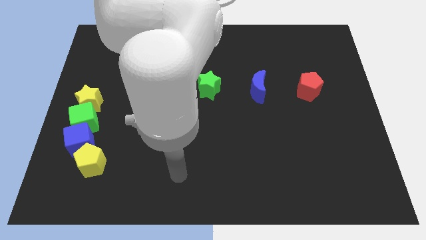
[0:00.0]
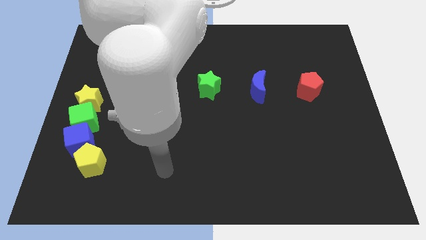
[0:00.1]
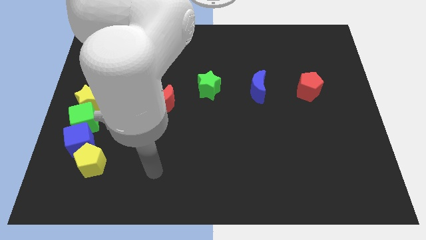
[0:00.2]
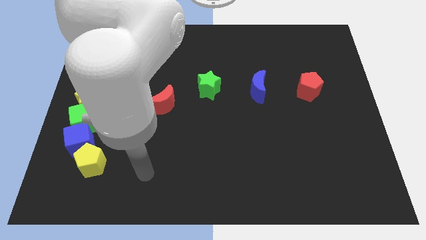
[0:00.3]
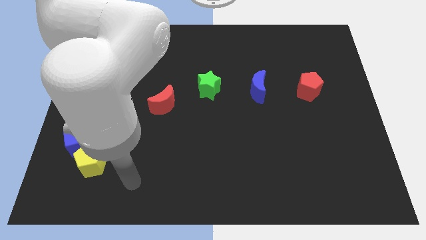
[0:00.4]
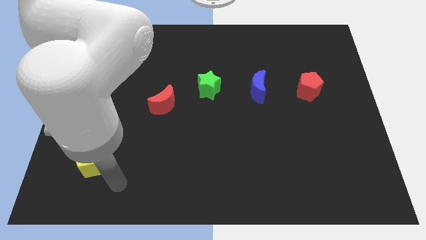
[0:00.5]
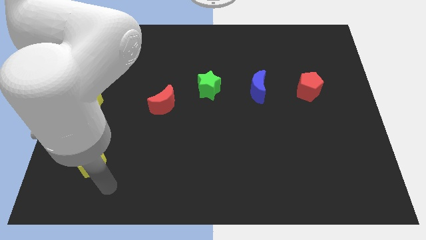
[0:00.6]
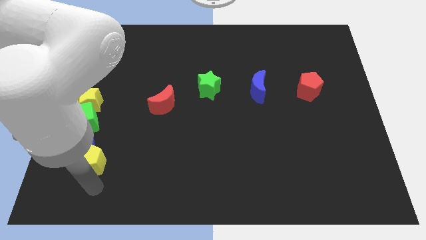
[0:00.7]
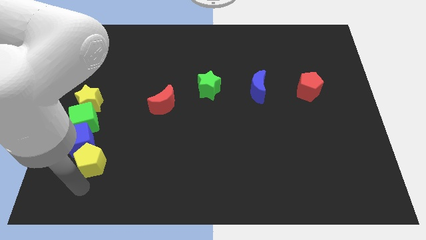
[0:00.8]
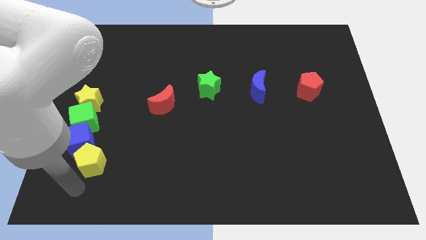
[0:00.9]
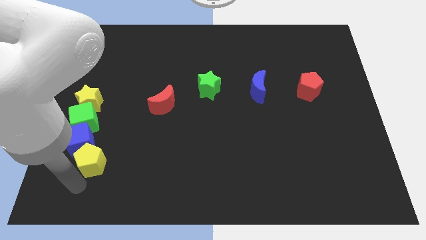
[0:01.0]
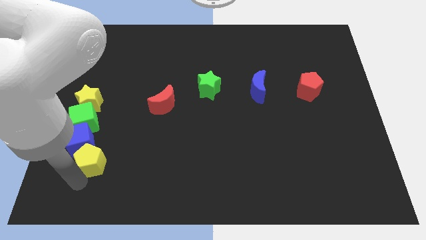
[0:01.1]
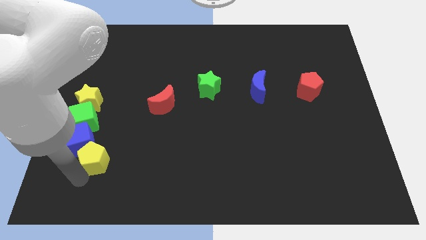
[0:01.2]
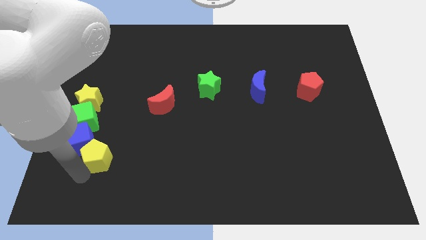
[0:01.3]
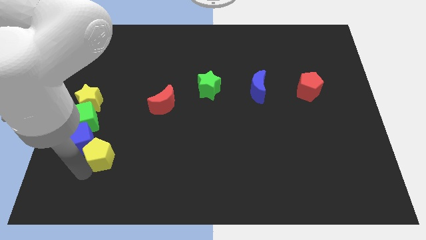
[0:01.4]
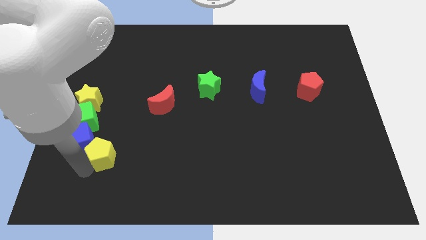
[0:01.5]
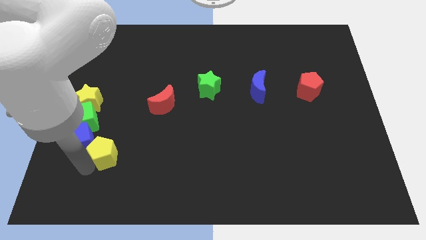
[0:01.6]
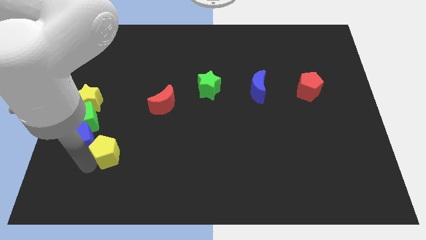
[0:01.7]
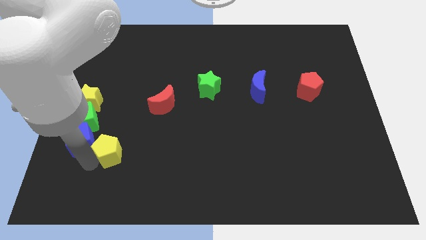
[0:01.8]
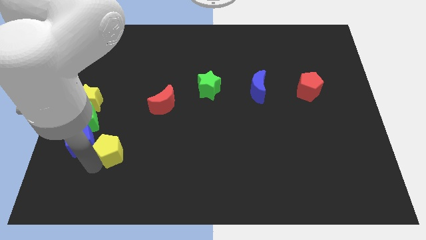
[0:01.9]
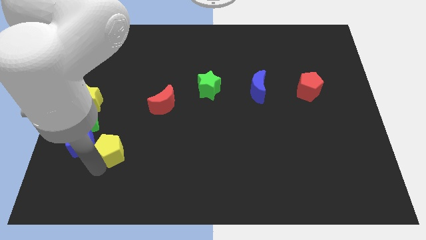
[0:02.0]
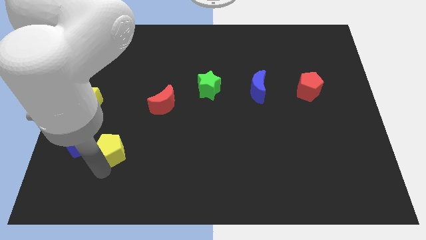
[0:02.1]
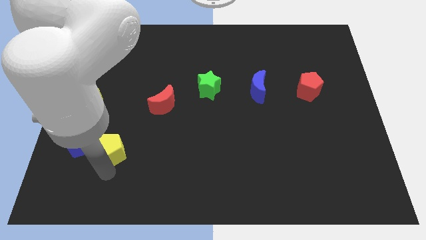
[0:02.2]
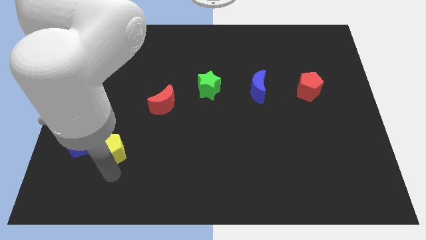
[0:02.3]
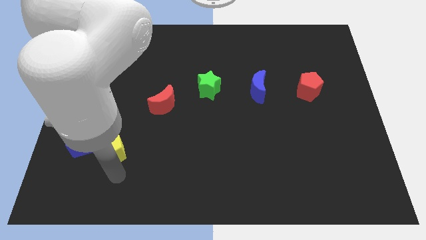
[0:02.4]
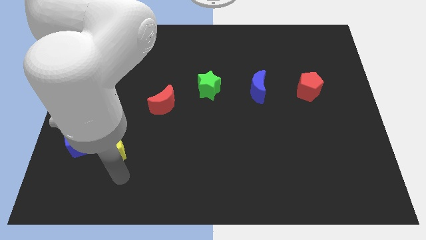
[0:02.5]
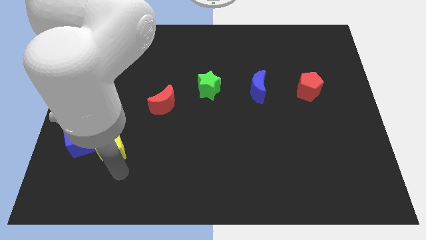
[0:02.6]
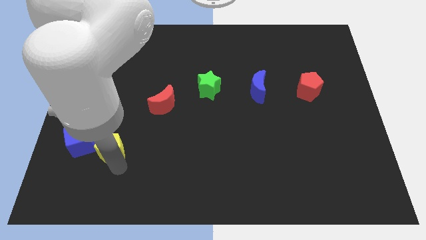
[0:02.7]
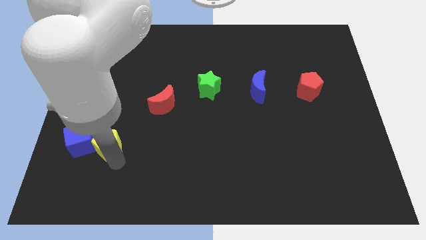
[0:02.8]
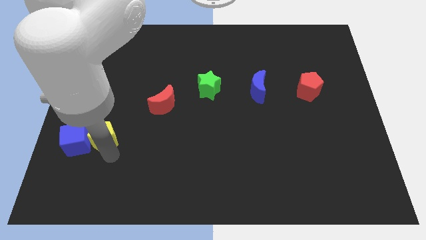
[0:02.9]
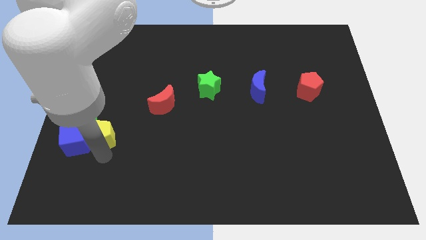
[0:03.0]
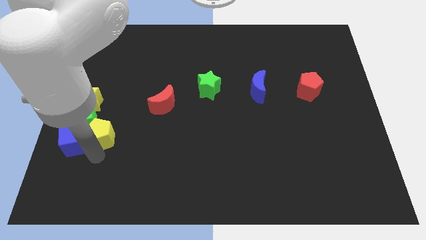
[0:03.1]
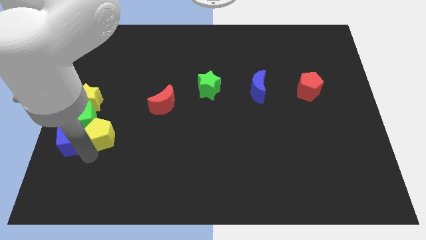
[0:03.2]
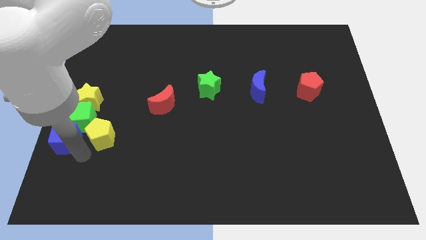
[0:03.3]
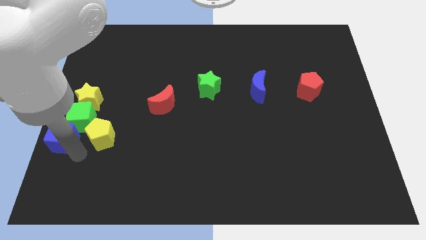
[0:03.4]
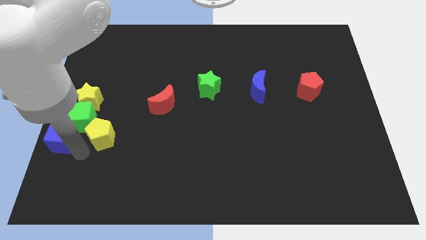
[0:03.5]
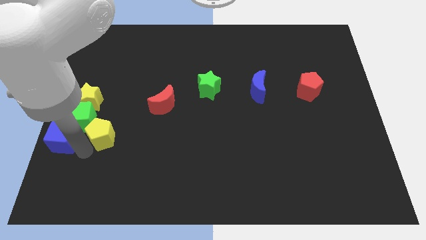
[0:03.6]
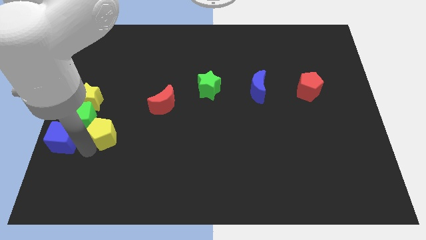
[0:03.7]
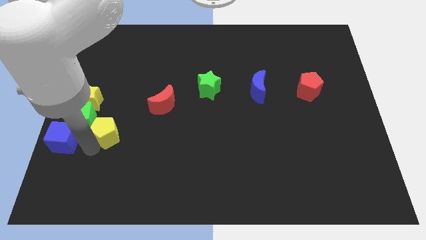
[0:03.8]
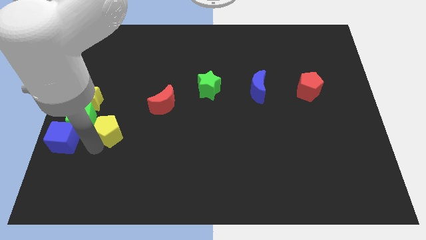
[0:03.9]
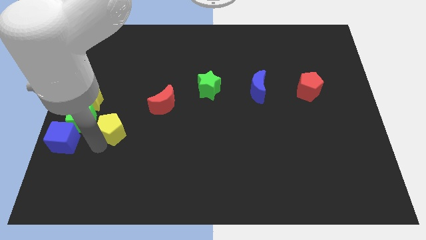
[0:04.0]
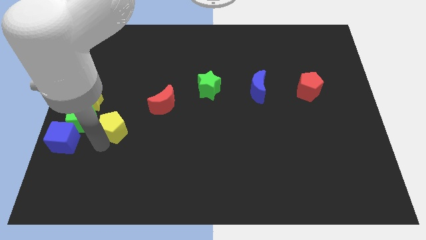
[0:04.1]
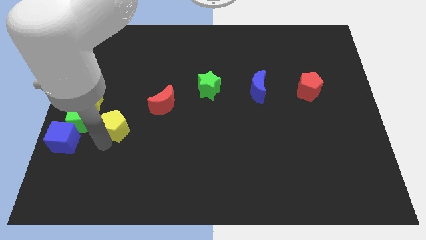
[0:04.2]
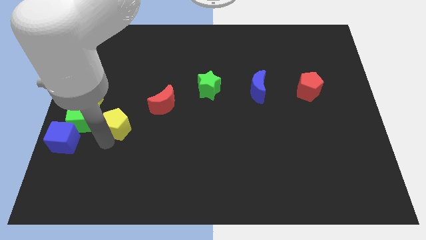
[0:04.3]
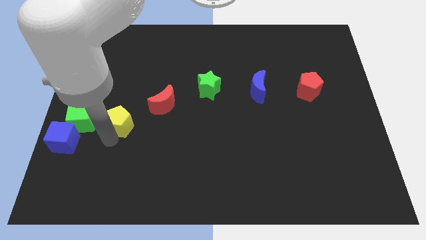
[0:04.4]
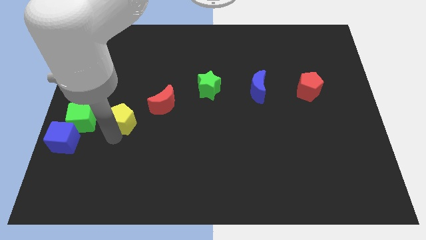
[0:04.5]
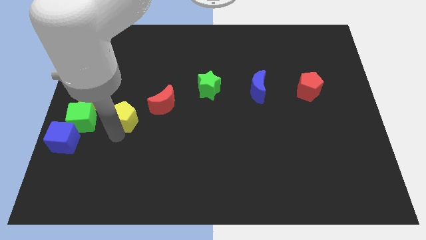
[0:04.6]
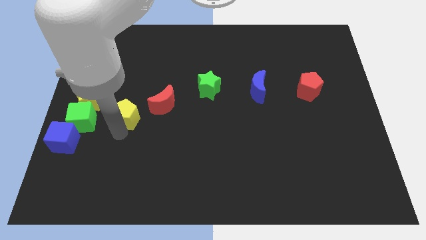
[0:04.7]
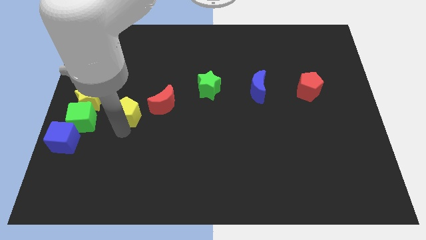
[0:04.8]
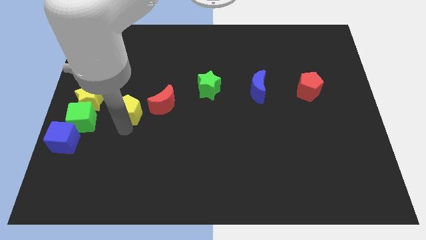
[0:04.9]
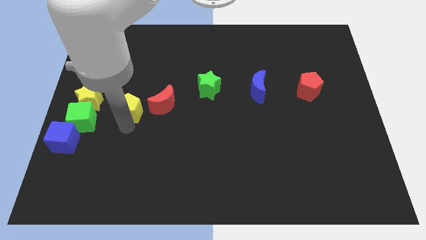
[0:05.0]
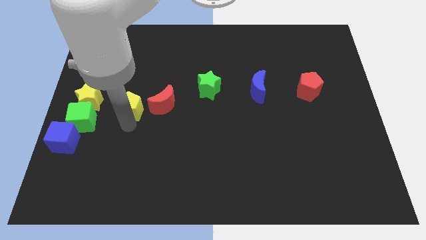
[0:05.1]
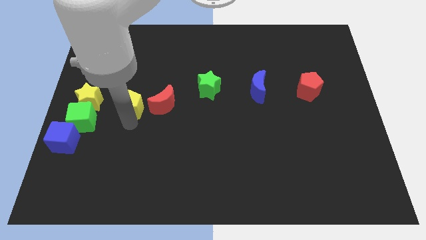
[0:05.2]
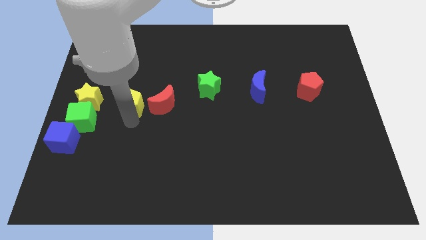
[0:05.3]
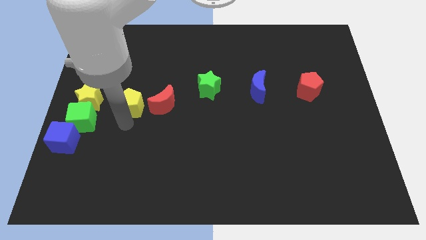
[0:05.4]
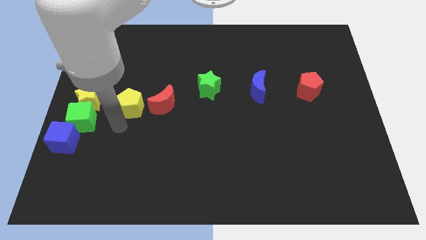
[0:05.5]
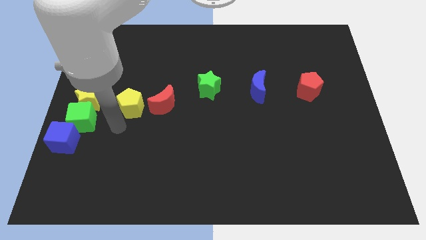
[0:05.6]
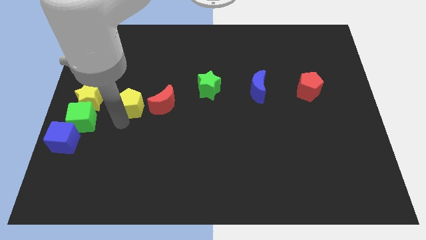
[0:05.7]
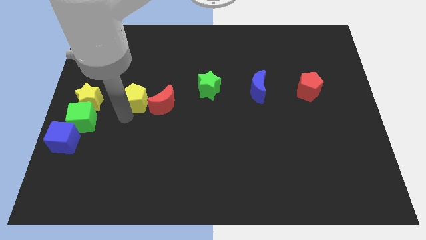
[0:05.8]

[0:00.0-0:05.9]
put the yellow pentagon diagonally up and to the left of the red moon

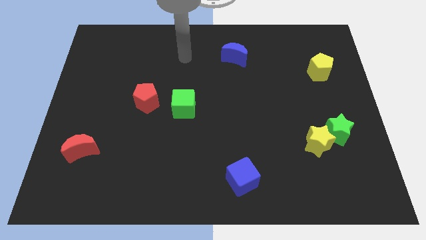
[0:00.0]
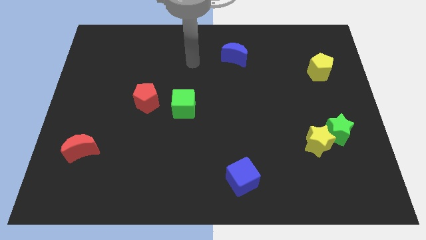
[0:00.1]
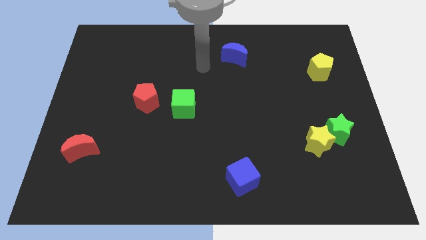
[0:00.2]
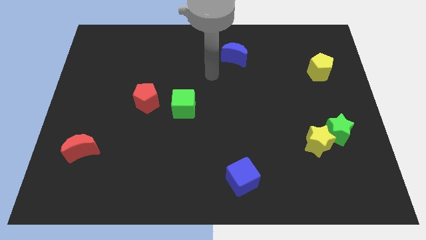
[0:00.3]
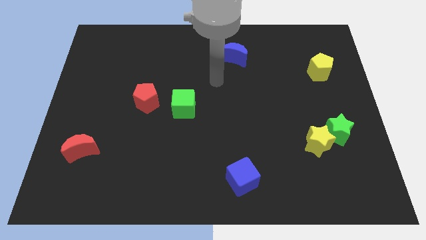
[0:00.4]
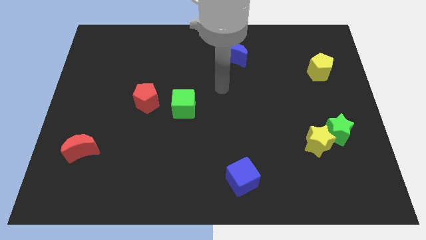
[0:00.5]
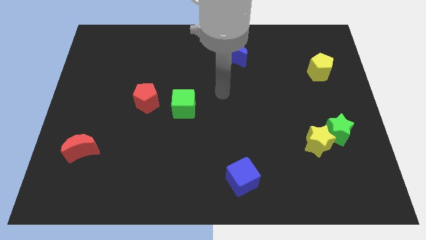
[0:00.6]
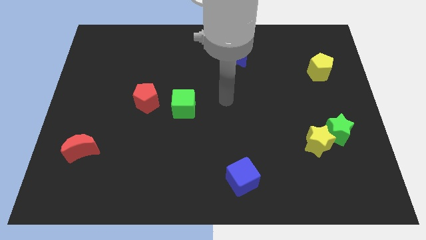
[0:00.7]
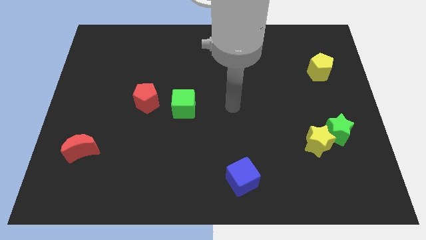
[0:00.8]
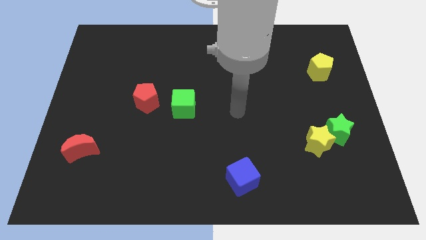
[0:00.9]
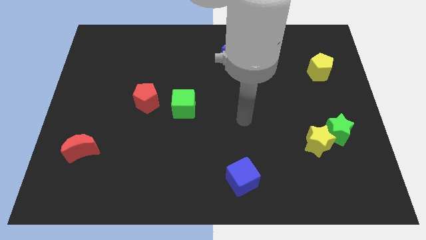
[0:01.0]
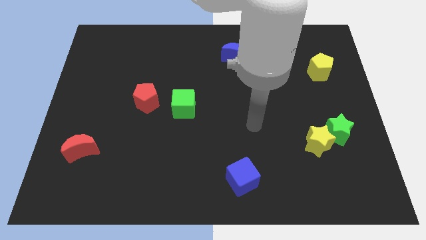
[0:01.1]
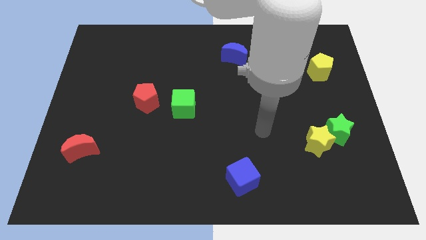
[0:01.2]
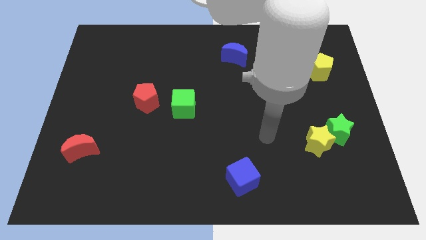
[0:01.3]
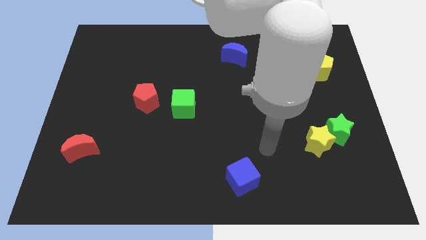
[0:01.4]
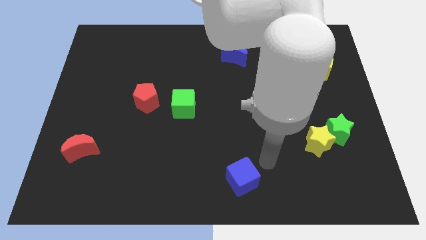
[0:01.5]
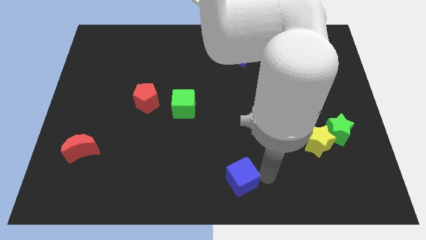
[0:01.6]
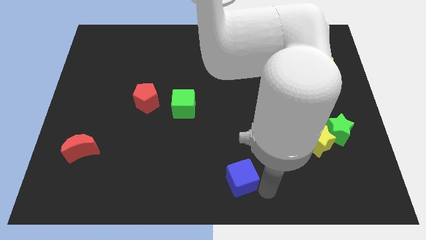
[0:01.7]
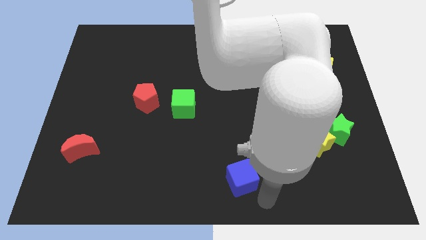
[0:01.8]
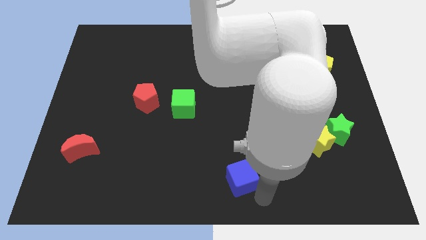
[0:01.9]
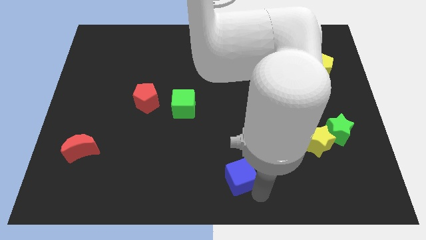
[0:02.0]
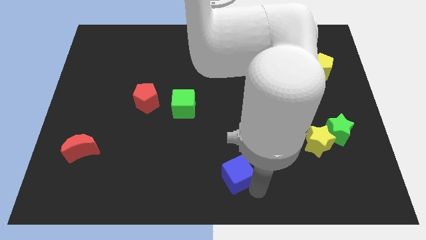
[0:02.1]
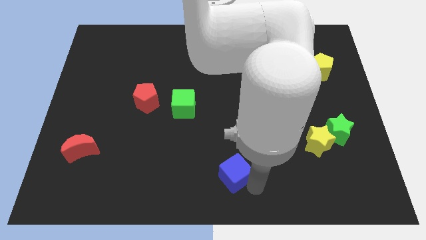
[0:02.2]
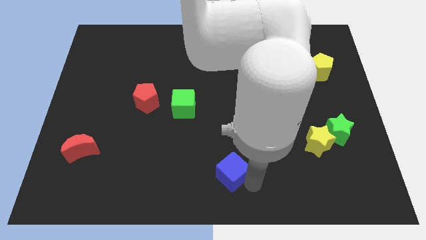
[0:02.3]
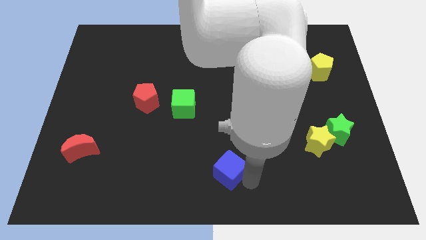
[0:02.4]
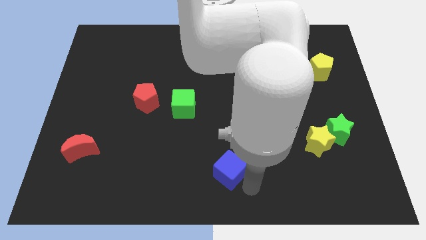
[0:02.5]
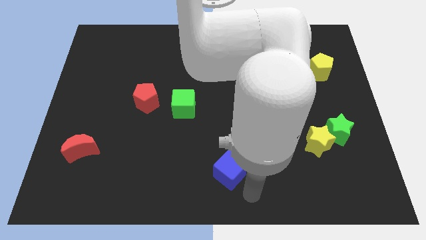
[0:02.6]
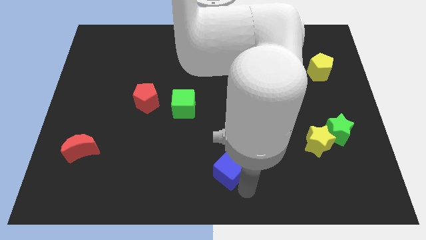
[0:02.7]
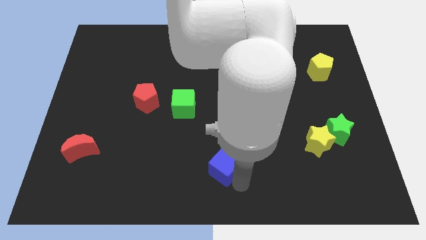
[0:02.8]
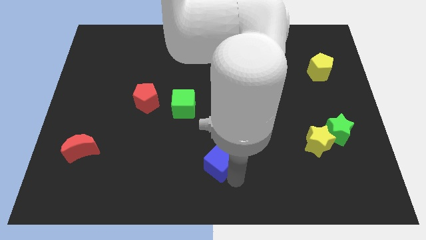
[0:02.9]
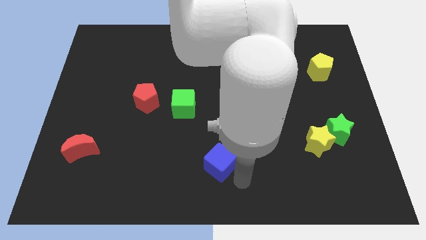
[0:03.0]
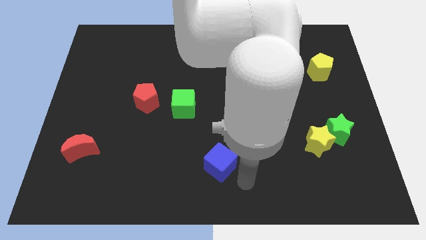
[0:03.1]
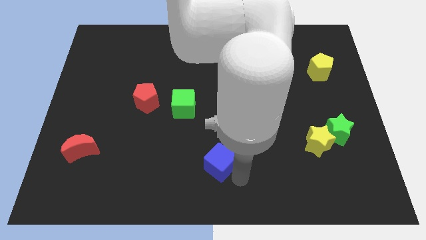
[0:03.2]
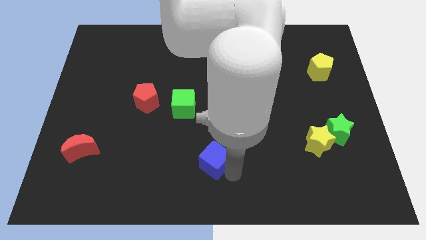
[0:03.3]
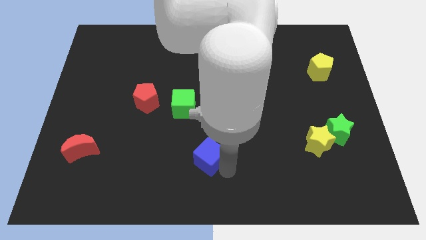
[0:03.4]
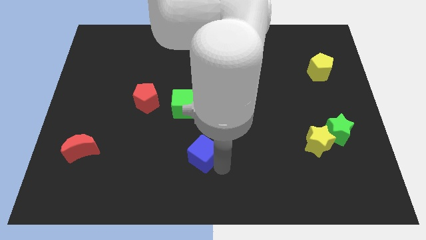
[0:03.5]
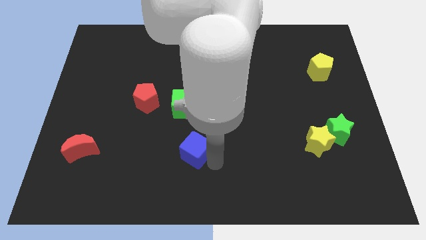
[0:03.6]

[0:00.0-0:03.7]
move the blue cube to the bottom side of the green cube
